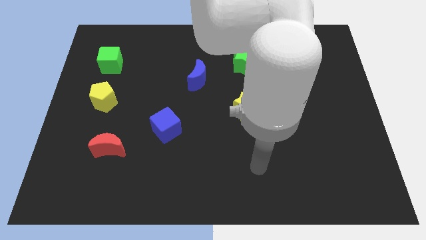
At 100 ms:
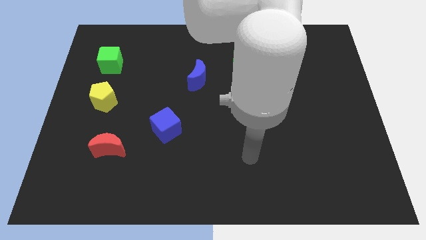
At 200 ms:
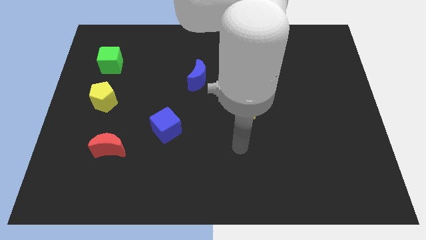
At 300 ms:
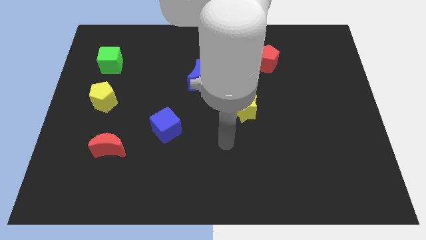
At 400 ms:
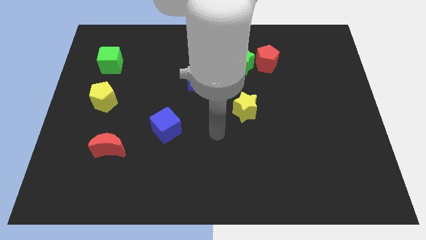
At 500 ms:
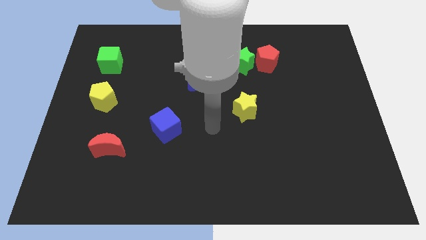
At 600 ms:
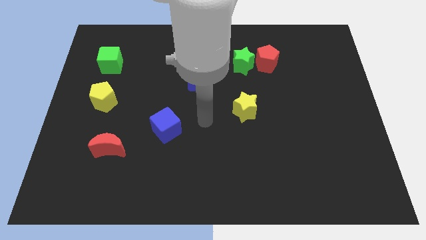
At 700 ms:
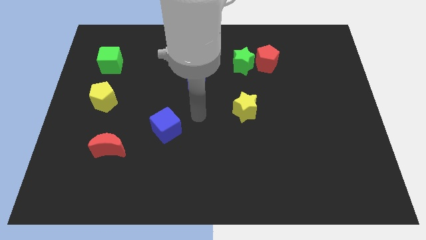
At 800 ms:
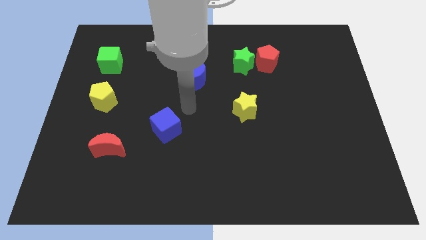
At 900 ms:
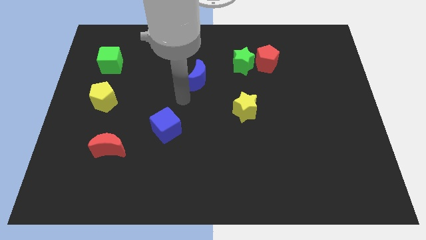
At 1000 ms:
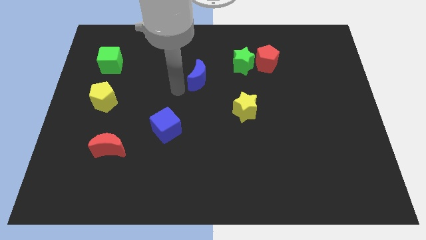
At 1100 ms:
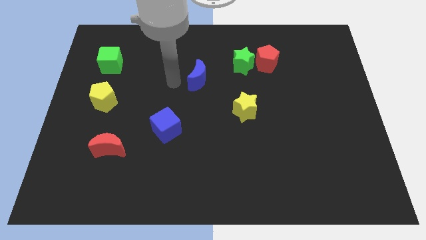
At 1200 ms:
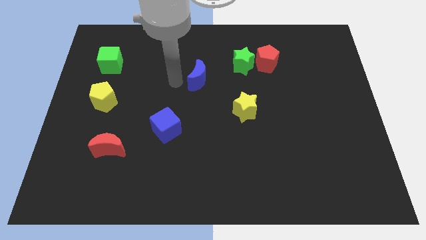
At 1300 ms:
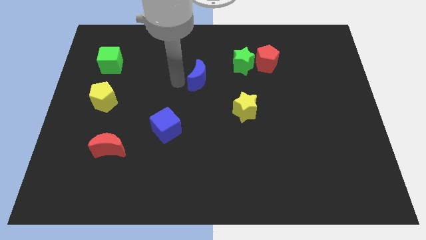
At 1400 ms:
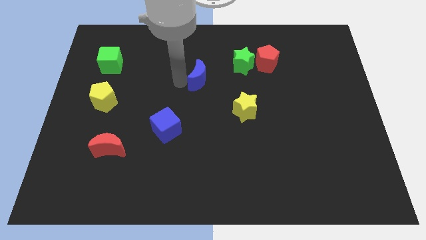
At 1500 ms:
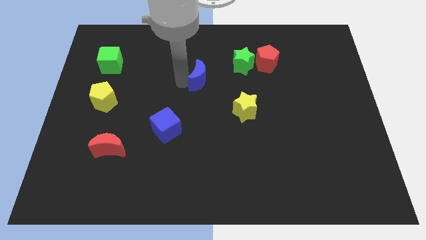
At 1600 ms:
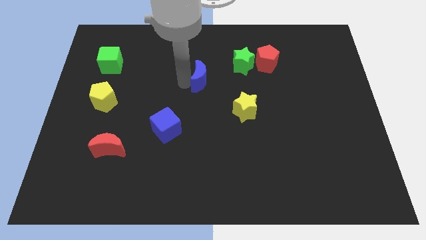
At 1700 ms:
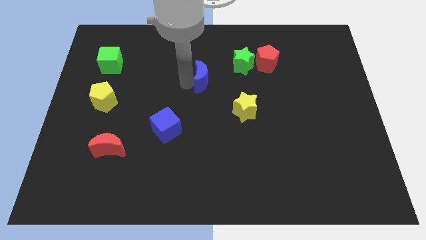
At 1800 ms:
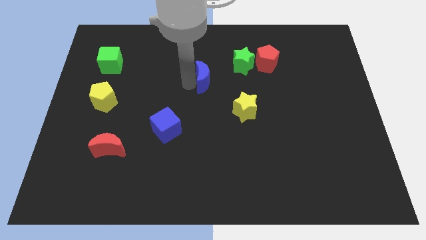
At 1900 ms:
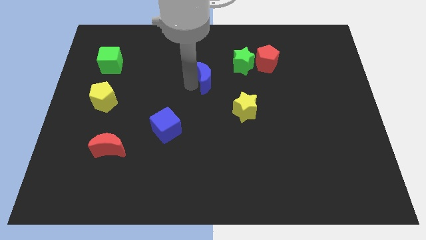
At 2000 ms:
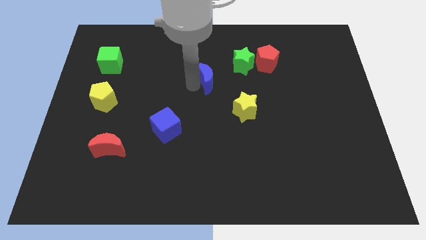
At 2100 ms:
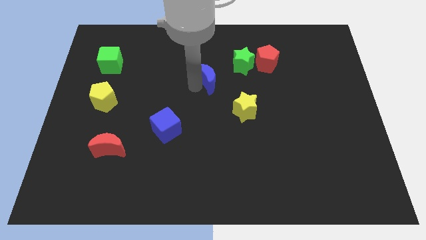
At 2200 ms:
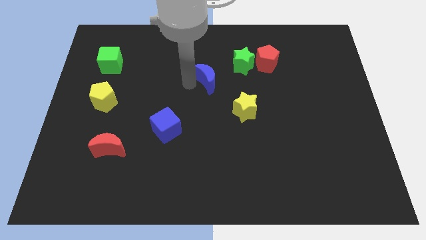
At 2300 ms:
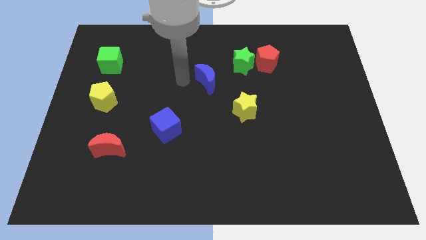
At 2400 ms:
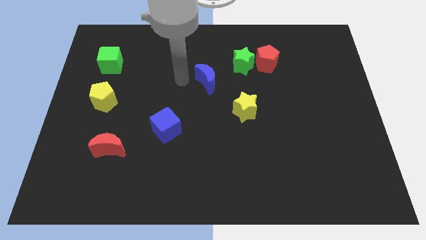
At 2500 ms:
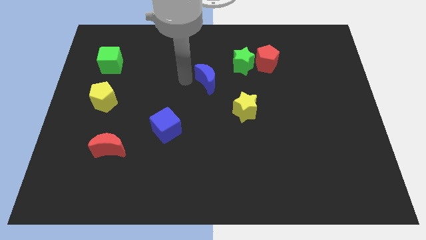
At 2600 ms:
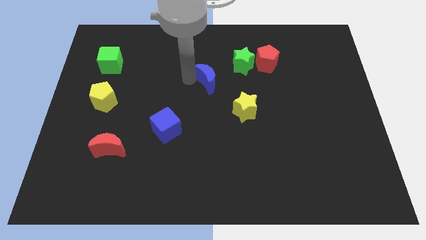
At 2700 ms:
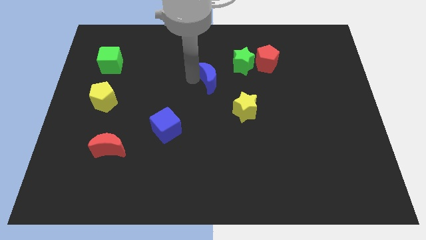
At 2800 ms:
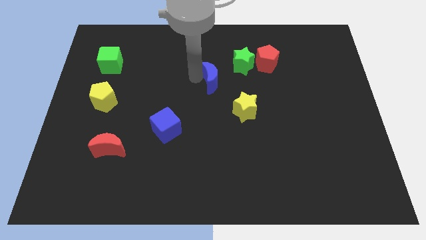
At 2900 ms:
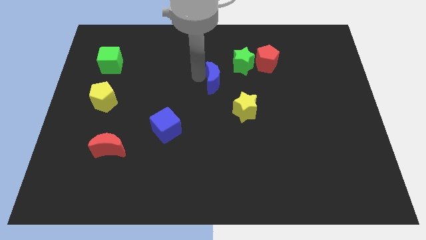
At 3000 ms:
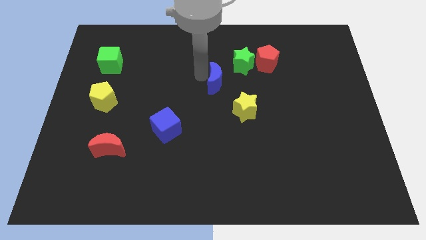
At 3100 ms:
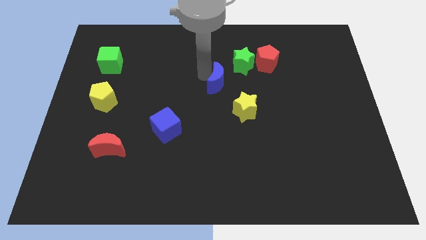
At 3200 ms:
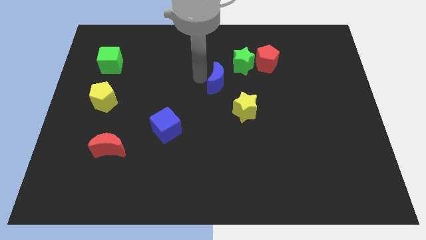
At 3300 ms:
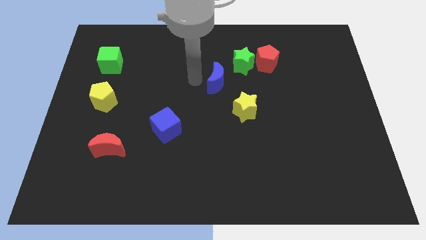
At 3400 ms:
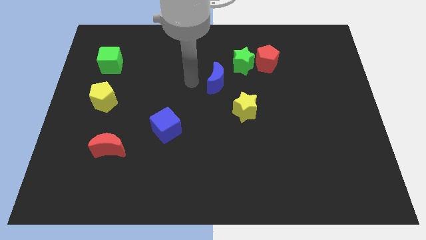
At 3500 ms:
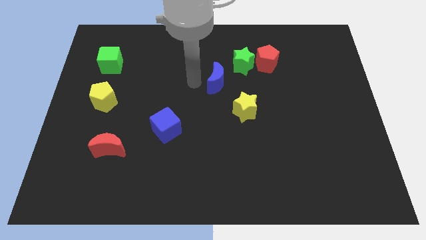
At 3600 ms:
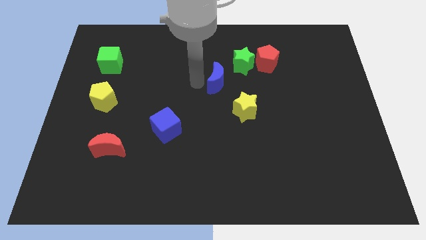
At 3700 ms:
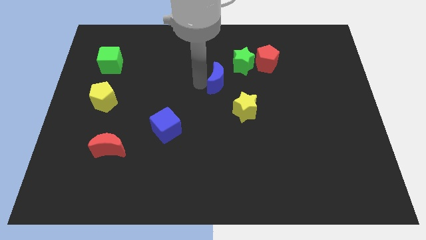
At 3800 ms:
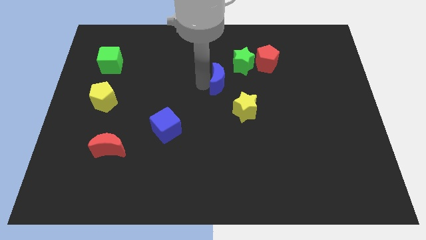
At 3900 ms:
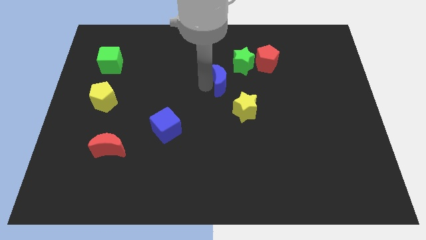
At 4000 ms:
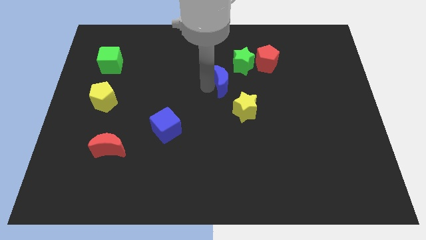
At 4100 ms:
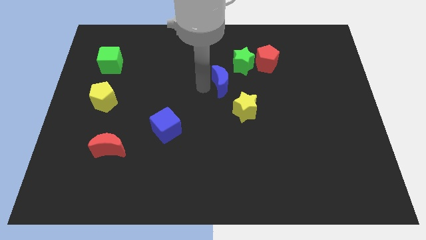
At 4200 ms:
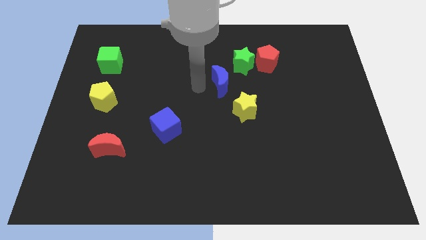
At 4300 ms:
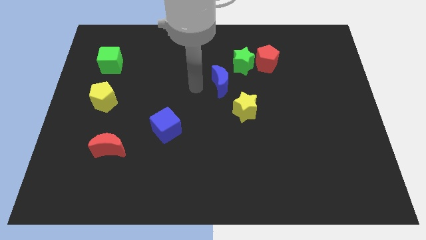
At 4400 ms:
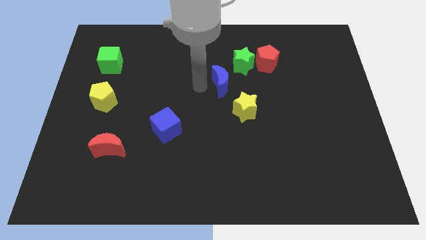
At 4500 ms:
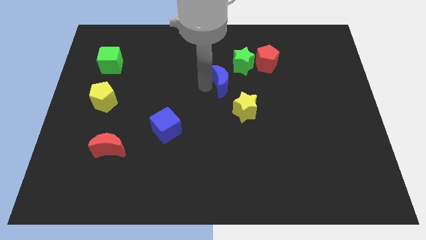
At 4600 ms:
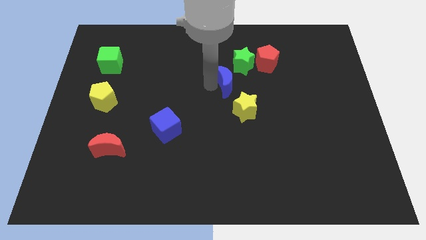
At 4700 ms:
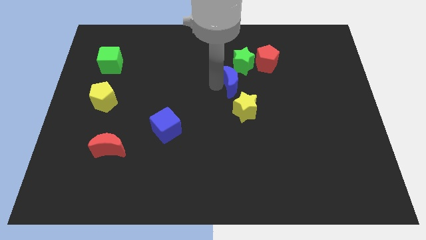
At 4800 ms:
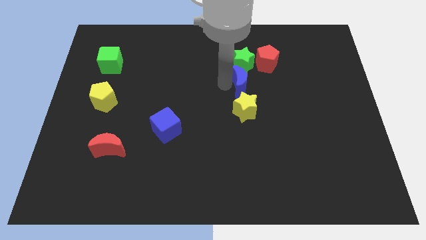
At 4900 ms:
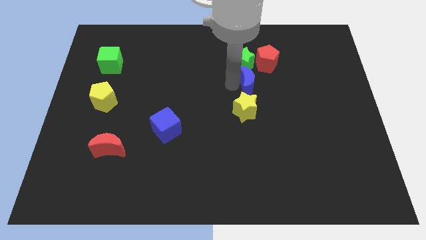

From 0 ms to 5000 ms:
slide the blue moon diagonally down and to the right of the green star

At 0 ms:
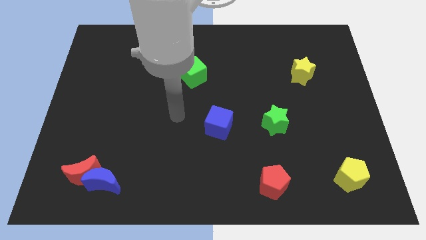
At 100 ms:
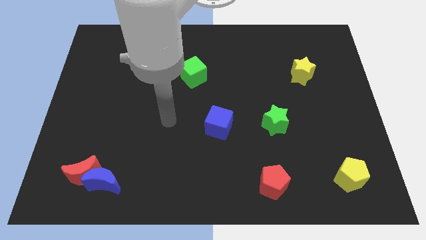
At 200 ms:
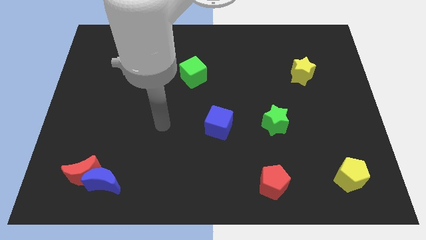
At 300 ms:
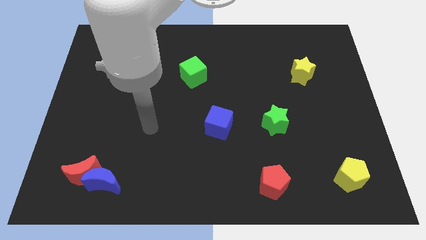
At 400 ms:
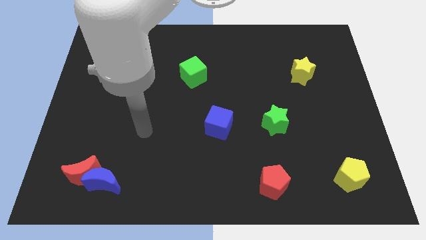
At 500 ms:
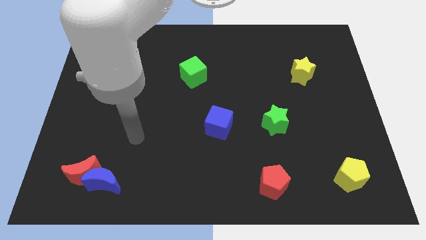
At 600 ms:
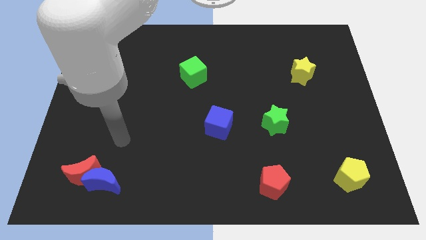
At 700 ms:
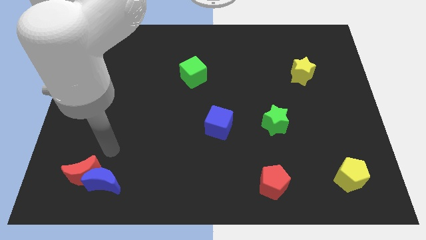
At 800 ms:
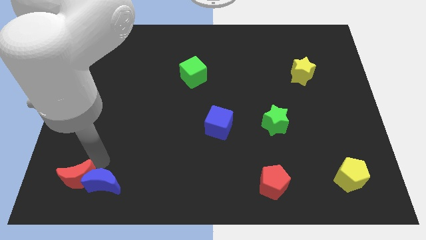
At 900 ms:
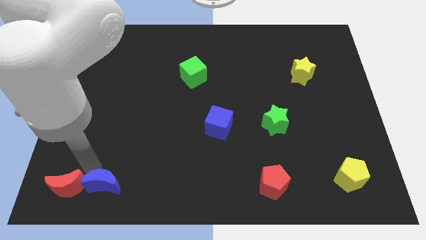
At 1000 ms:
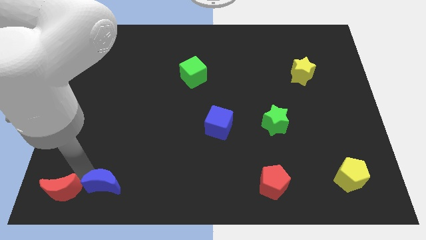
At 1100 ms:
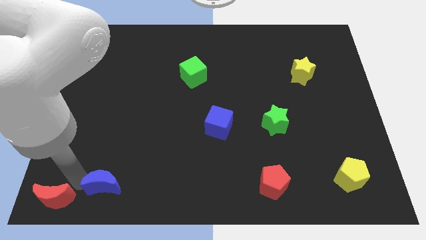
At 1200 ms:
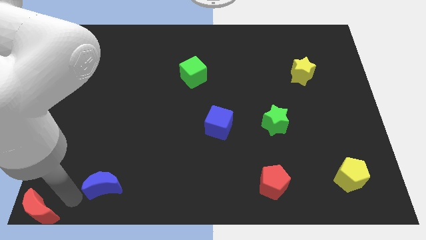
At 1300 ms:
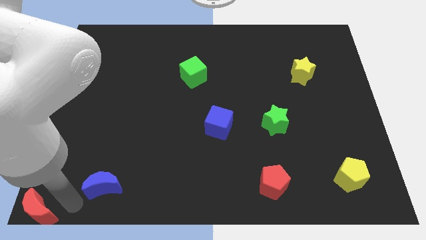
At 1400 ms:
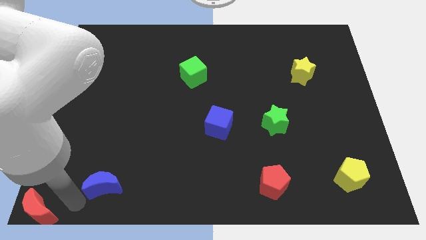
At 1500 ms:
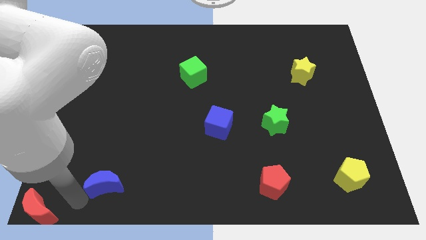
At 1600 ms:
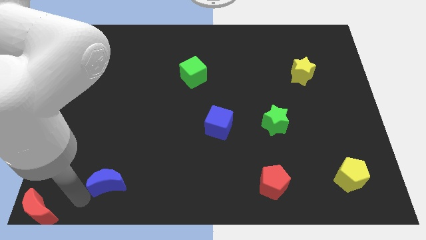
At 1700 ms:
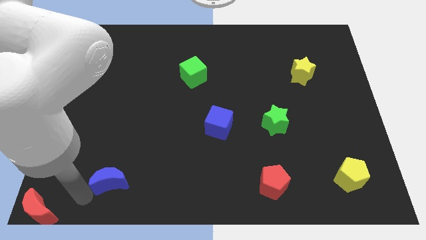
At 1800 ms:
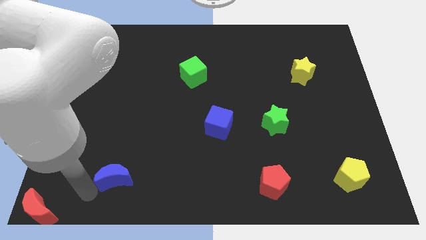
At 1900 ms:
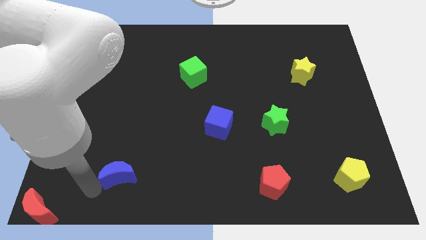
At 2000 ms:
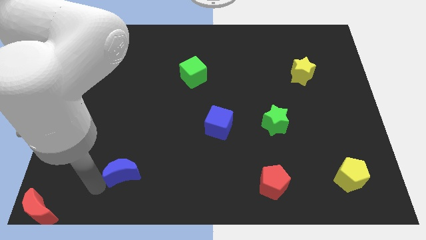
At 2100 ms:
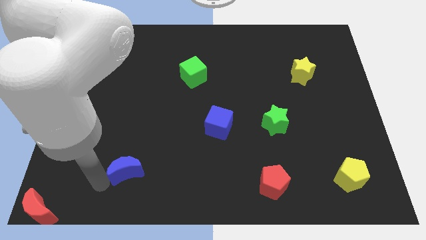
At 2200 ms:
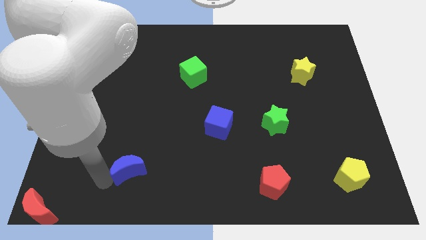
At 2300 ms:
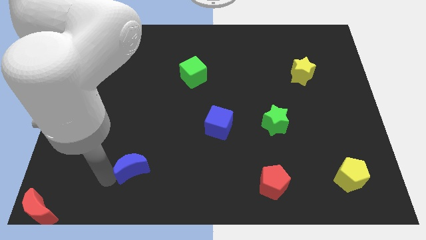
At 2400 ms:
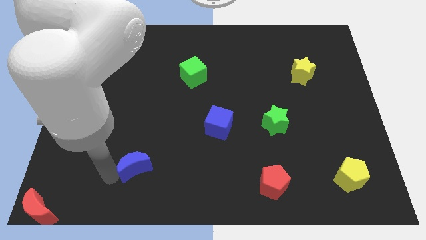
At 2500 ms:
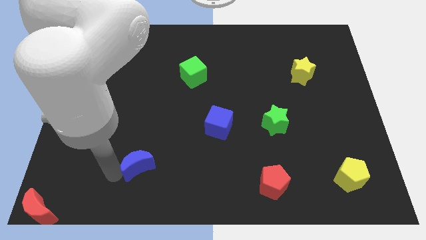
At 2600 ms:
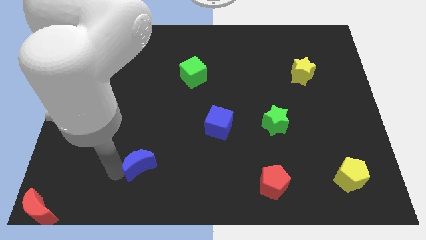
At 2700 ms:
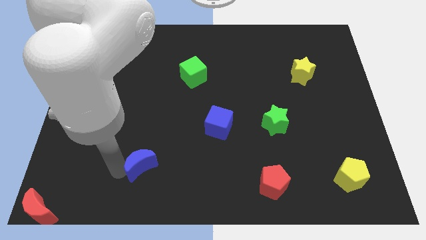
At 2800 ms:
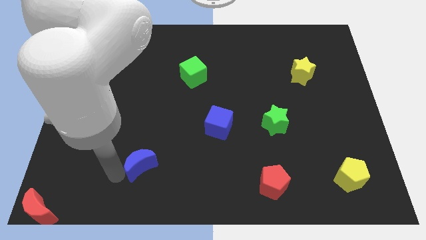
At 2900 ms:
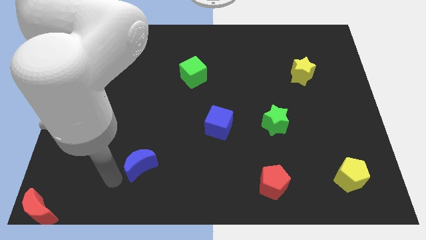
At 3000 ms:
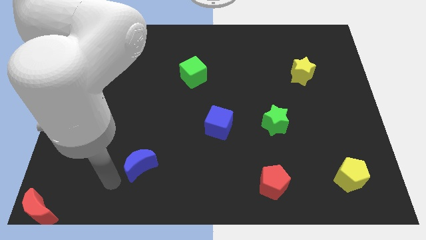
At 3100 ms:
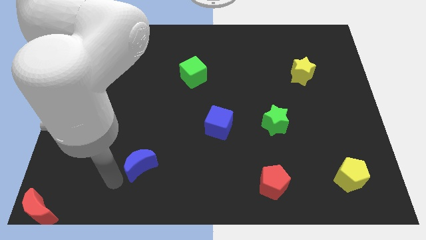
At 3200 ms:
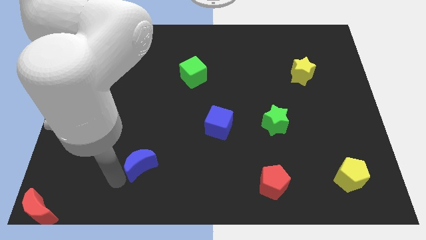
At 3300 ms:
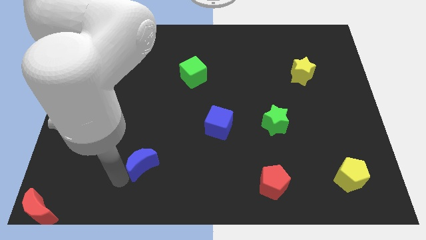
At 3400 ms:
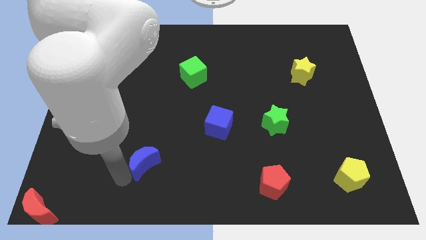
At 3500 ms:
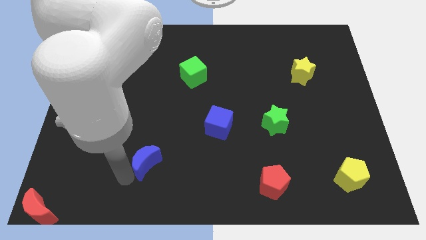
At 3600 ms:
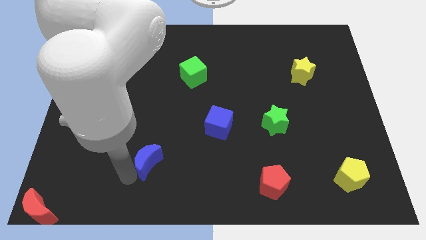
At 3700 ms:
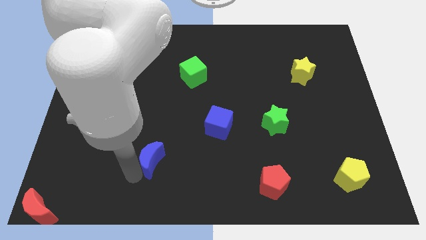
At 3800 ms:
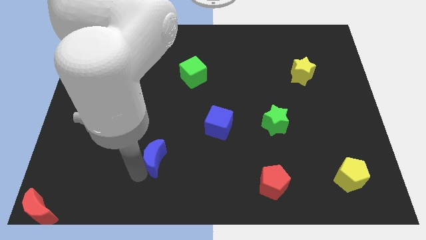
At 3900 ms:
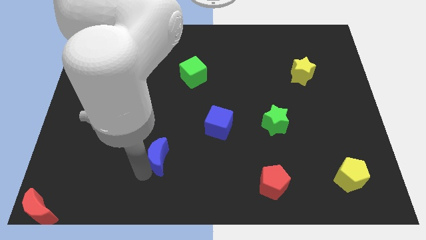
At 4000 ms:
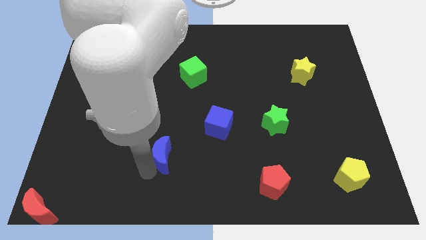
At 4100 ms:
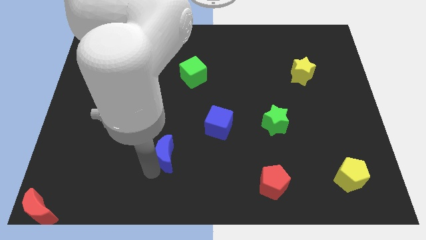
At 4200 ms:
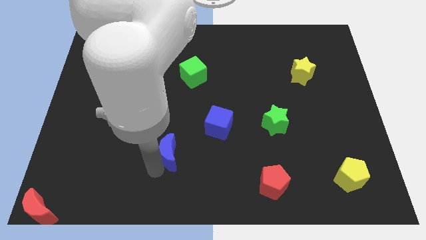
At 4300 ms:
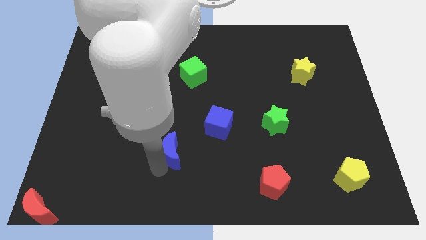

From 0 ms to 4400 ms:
move the blue moon to the bottom left side of the blue cube
